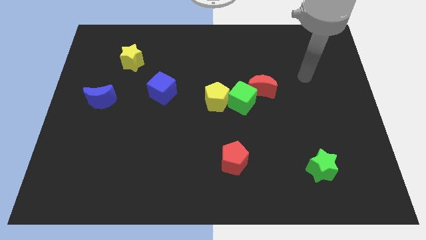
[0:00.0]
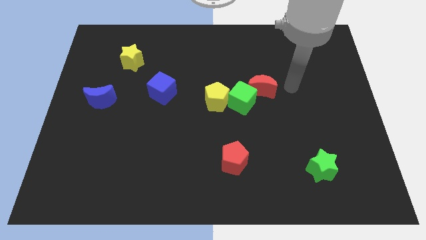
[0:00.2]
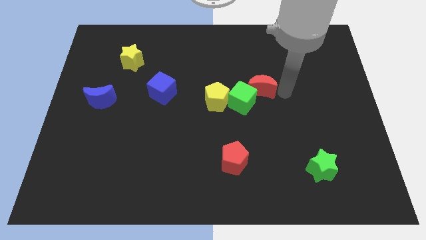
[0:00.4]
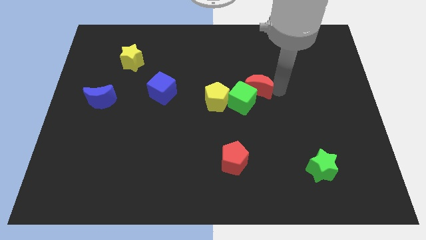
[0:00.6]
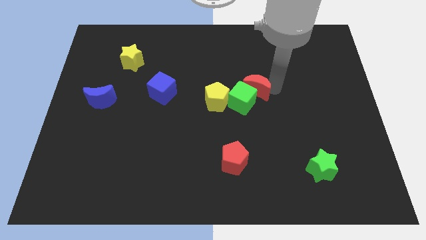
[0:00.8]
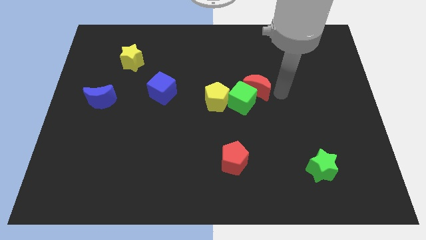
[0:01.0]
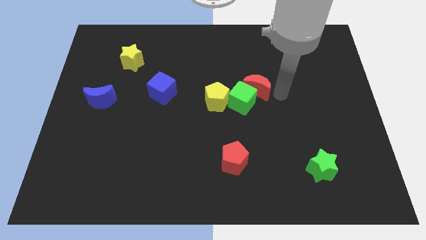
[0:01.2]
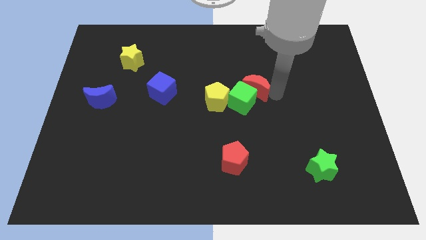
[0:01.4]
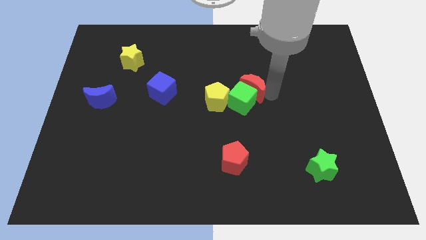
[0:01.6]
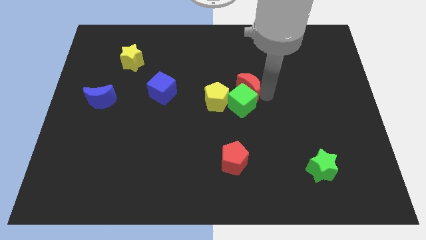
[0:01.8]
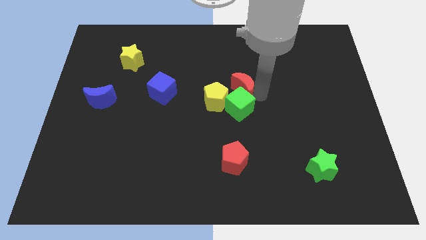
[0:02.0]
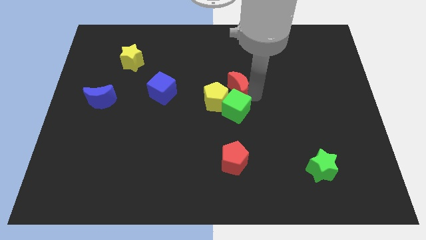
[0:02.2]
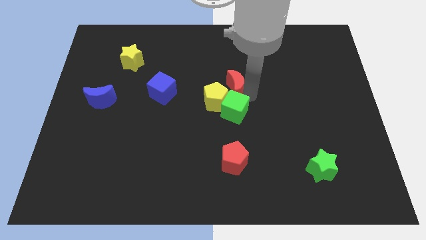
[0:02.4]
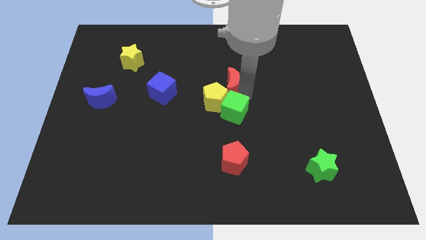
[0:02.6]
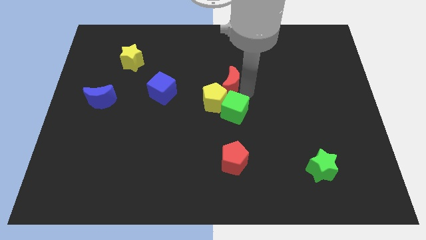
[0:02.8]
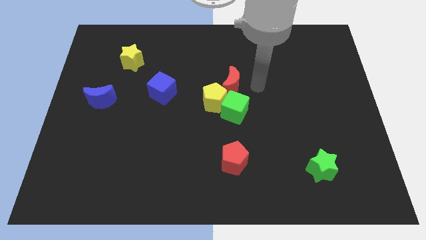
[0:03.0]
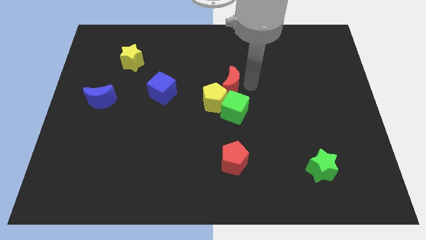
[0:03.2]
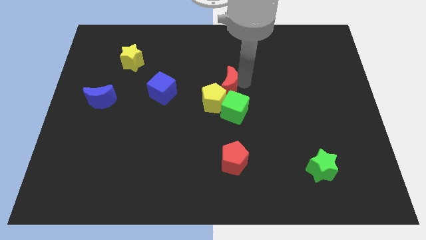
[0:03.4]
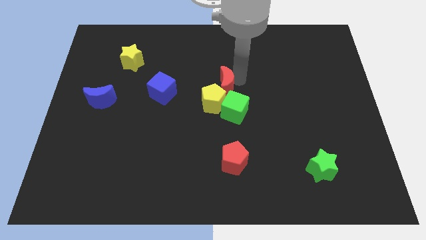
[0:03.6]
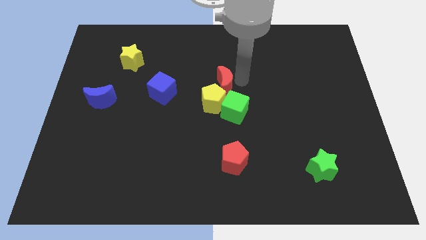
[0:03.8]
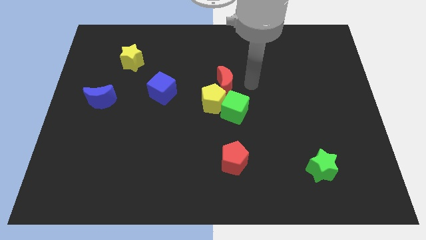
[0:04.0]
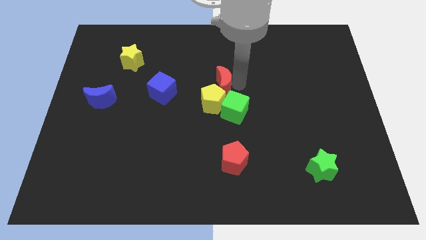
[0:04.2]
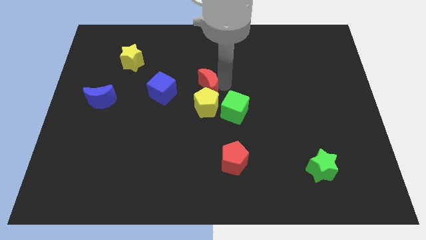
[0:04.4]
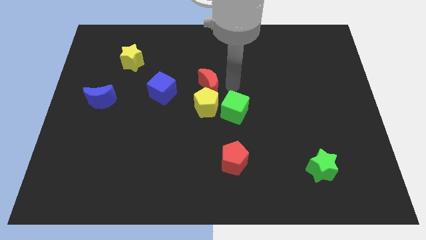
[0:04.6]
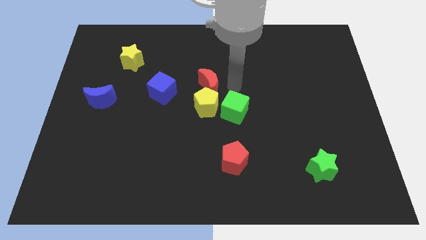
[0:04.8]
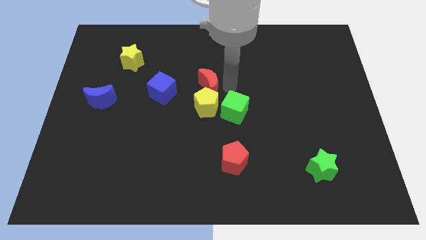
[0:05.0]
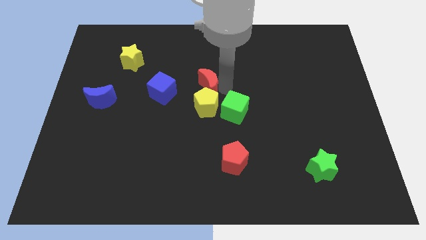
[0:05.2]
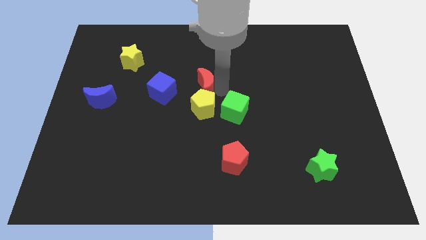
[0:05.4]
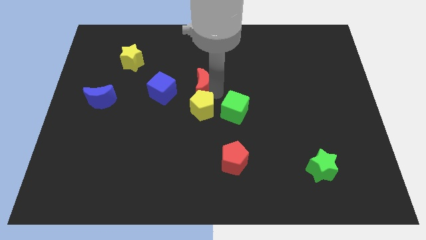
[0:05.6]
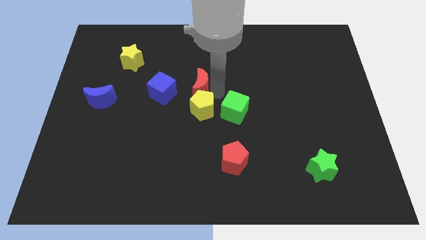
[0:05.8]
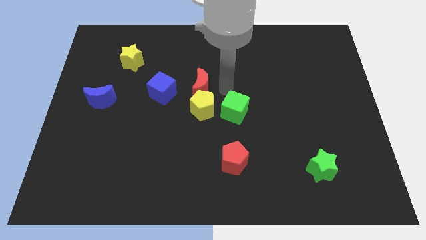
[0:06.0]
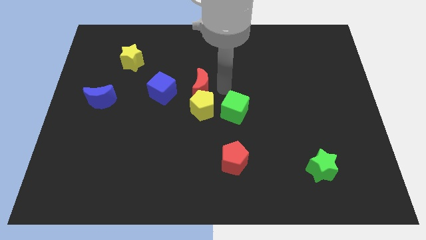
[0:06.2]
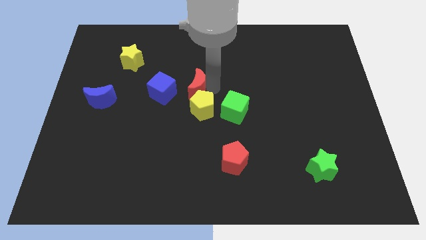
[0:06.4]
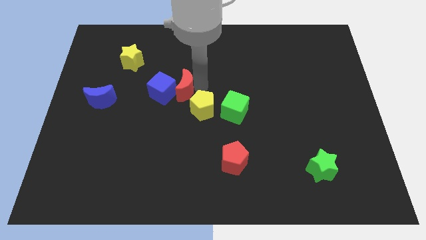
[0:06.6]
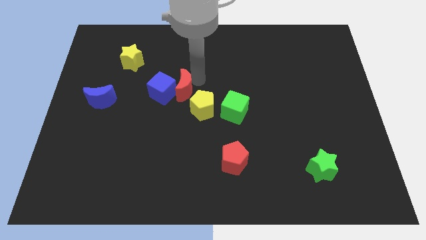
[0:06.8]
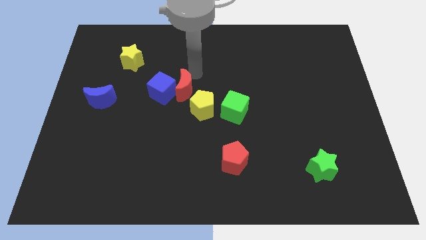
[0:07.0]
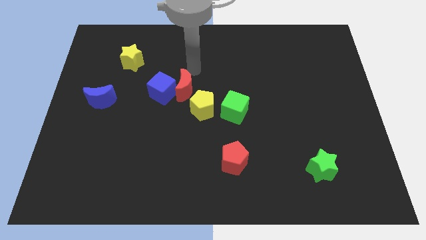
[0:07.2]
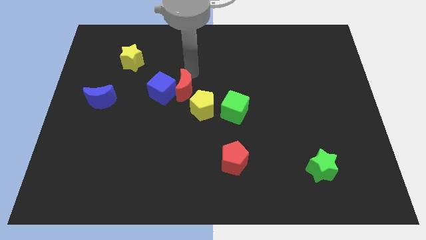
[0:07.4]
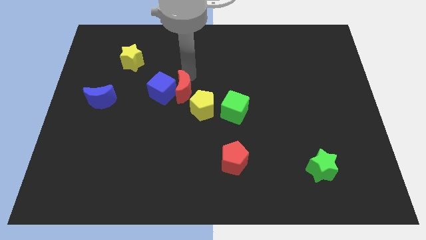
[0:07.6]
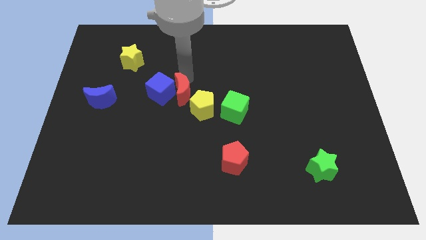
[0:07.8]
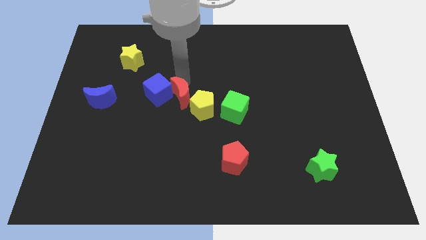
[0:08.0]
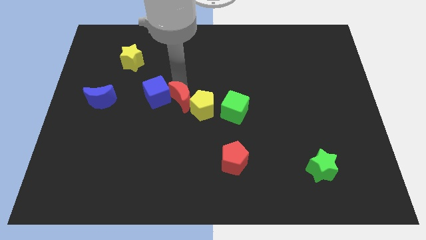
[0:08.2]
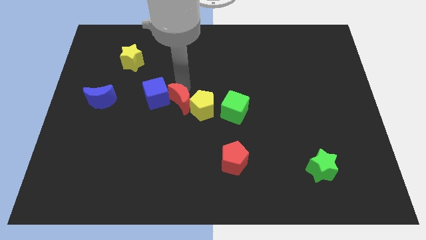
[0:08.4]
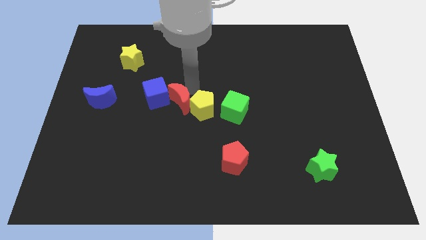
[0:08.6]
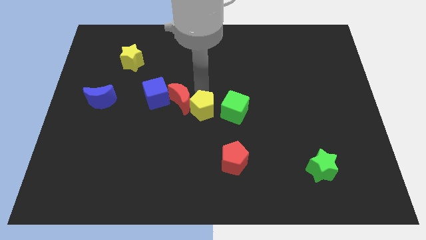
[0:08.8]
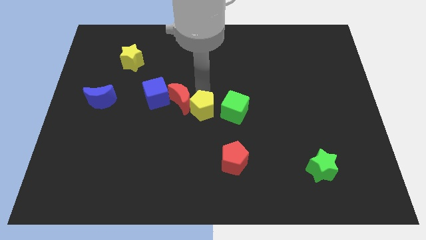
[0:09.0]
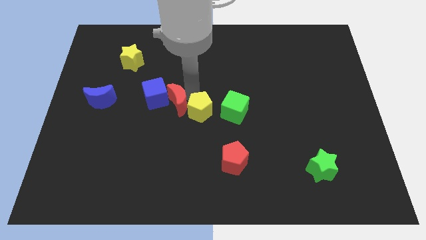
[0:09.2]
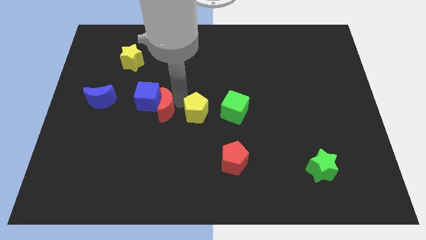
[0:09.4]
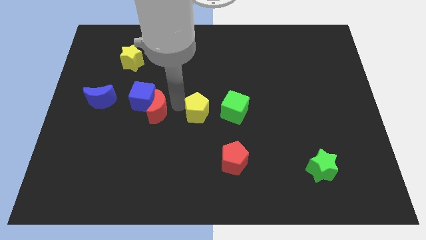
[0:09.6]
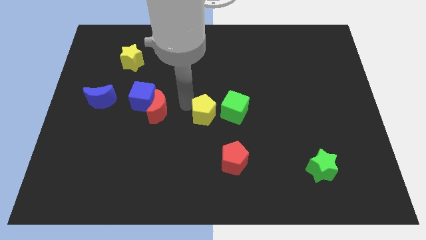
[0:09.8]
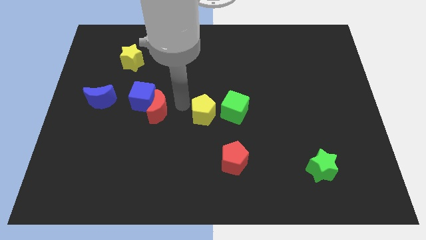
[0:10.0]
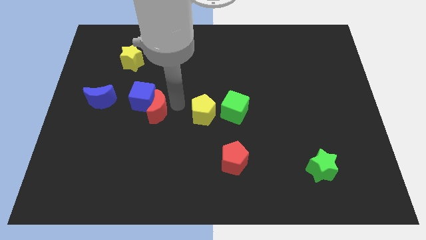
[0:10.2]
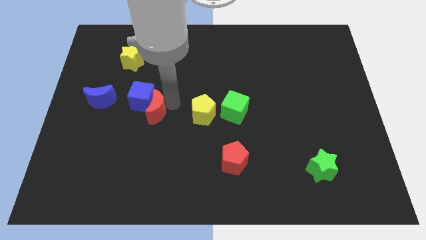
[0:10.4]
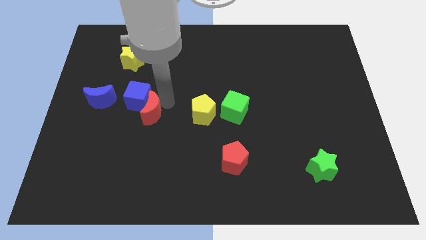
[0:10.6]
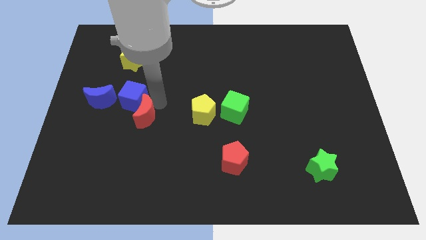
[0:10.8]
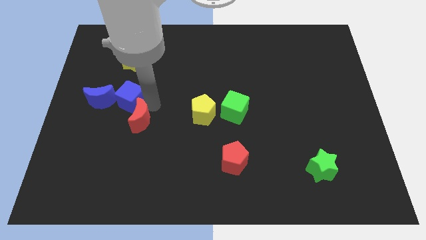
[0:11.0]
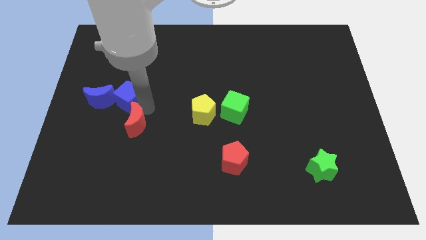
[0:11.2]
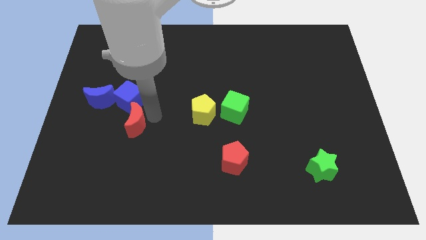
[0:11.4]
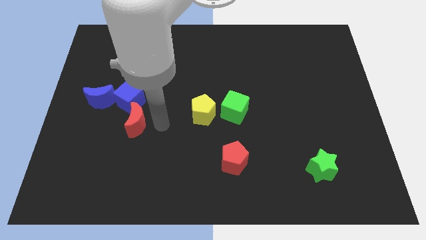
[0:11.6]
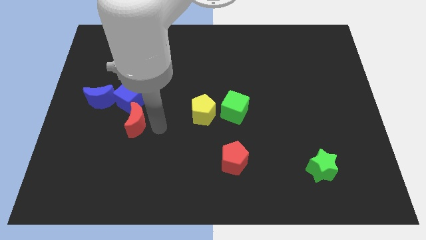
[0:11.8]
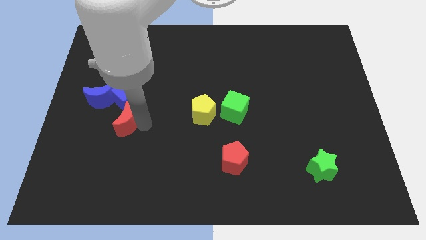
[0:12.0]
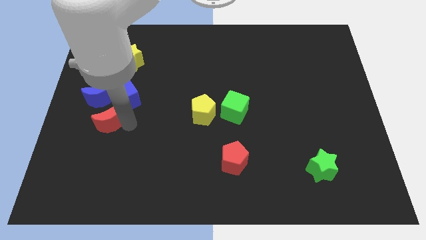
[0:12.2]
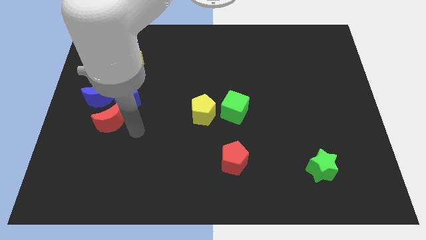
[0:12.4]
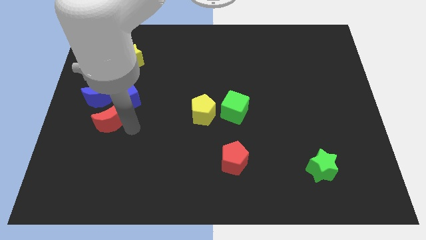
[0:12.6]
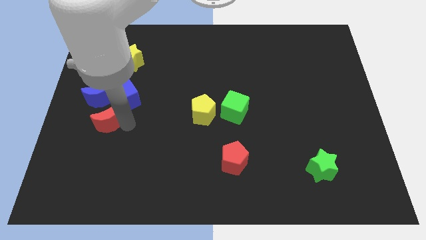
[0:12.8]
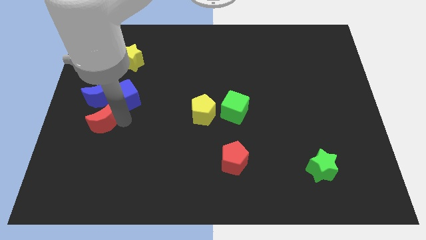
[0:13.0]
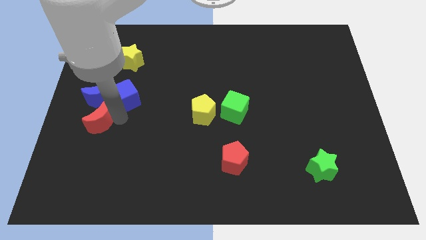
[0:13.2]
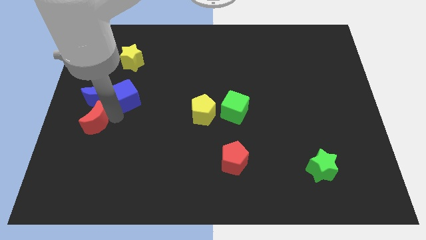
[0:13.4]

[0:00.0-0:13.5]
push the red moon to the center left

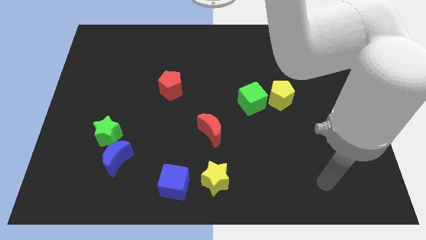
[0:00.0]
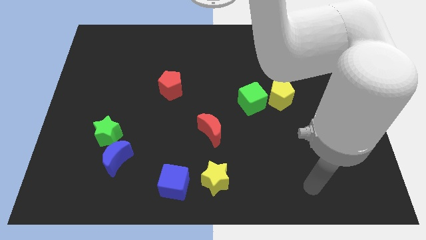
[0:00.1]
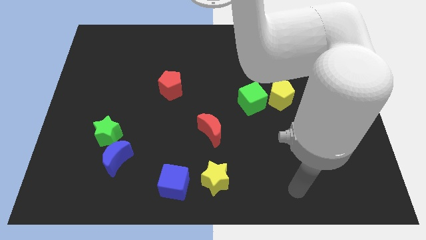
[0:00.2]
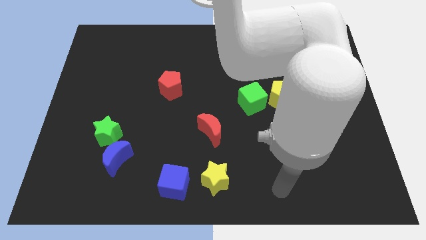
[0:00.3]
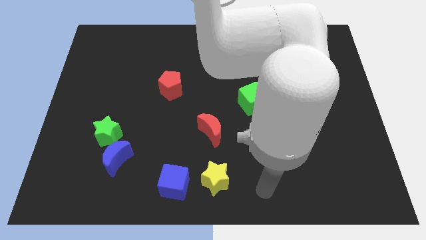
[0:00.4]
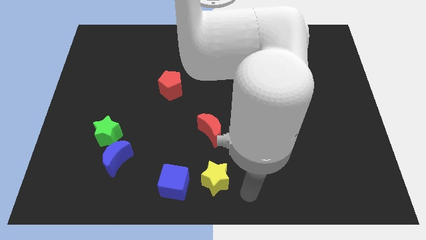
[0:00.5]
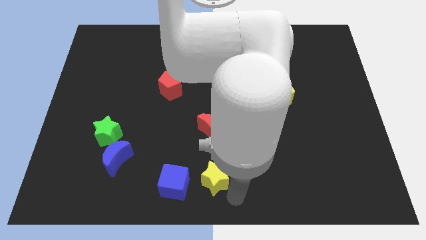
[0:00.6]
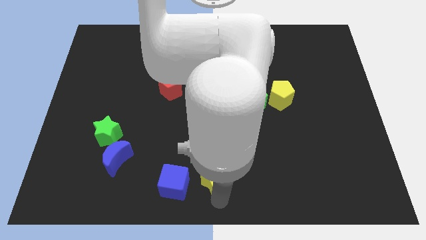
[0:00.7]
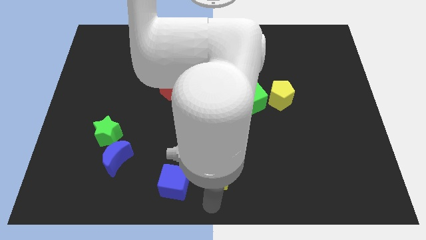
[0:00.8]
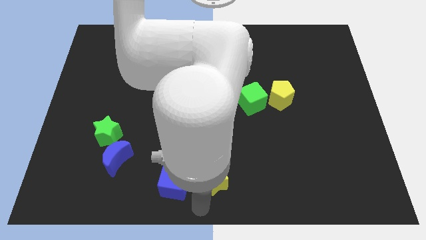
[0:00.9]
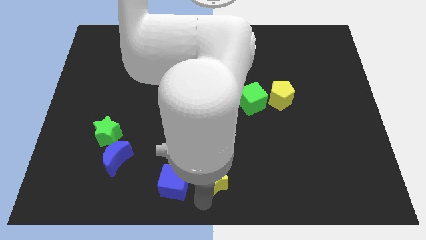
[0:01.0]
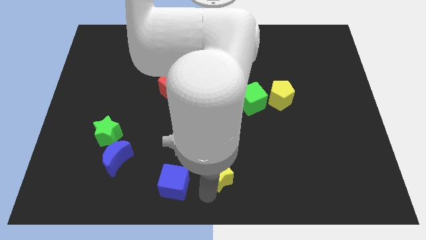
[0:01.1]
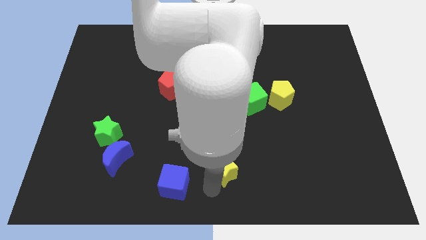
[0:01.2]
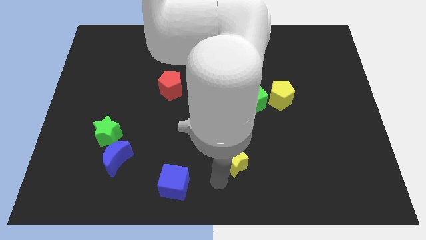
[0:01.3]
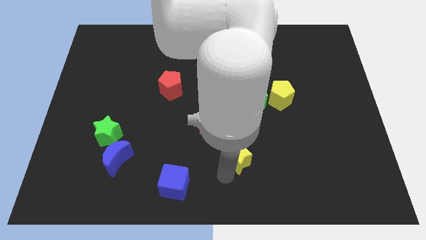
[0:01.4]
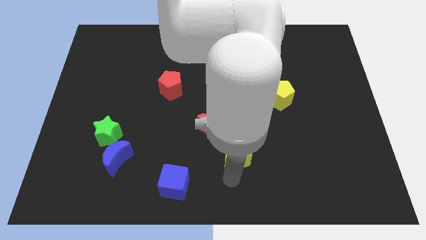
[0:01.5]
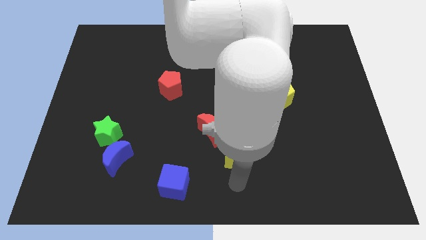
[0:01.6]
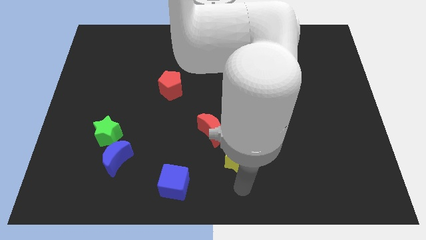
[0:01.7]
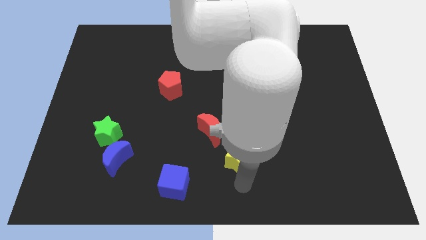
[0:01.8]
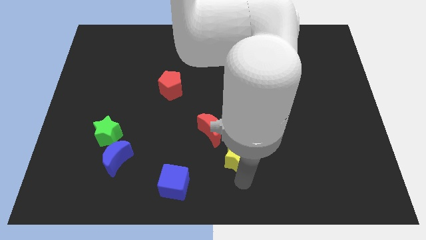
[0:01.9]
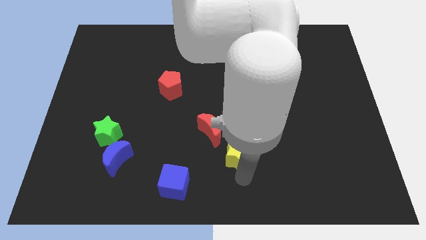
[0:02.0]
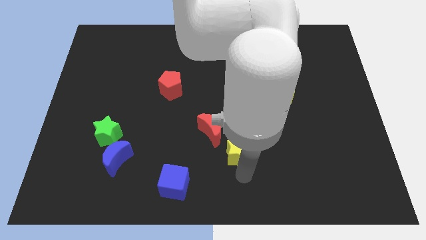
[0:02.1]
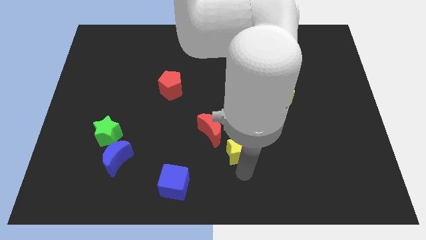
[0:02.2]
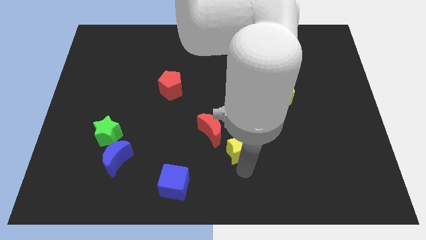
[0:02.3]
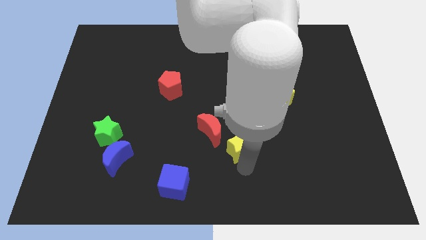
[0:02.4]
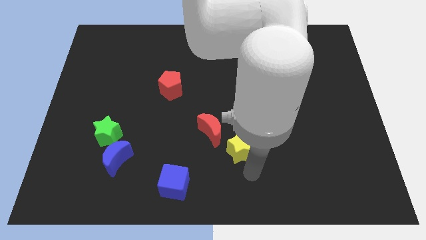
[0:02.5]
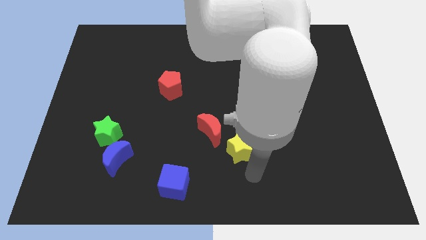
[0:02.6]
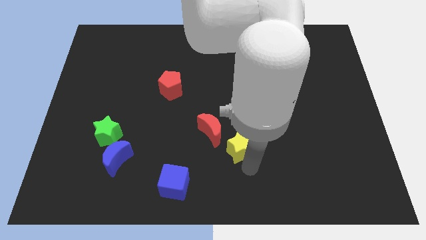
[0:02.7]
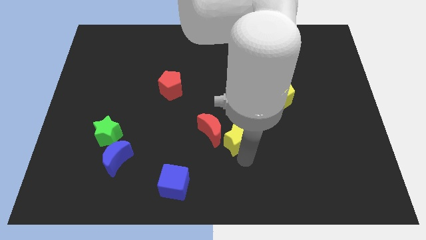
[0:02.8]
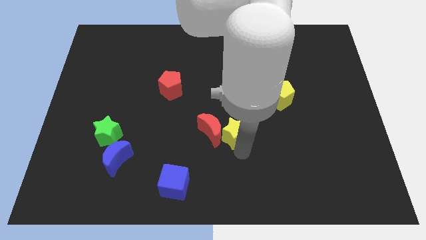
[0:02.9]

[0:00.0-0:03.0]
put the yellow star to the middle
